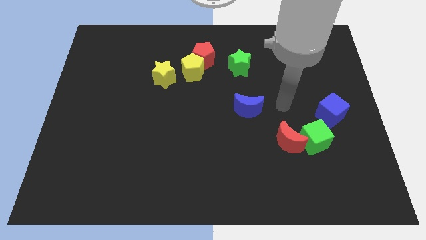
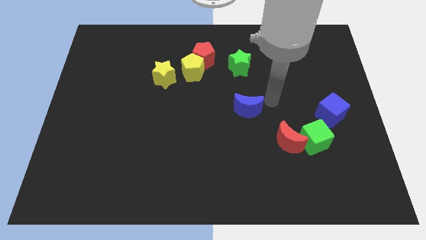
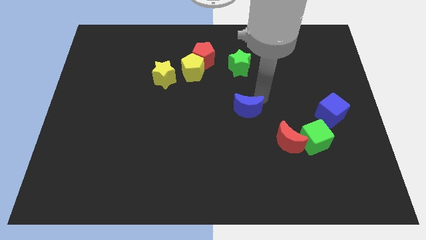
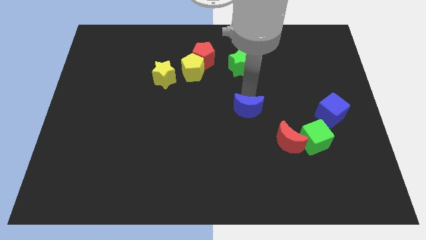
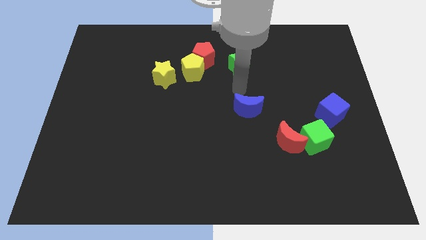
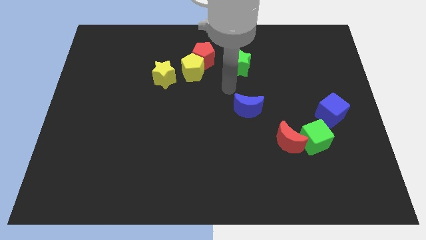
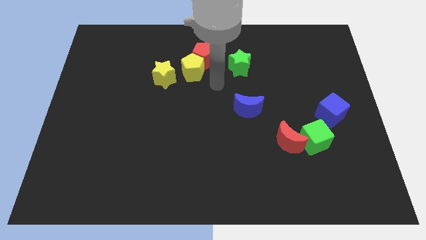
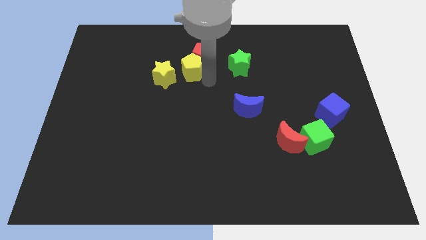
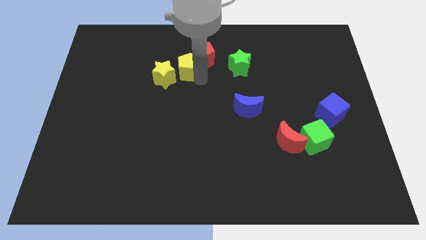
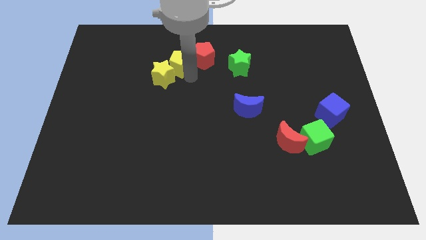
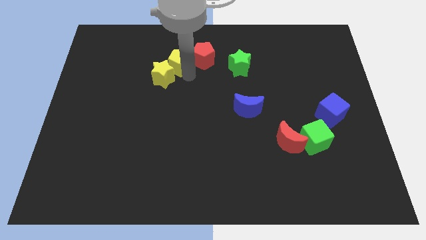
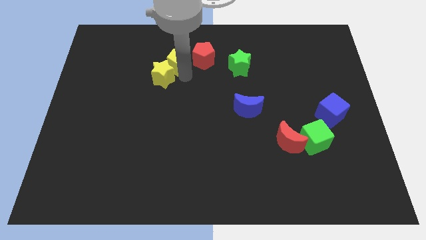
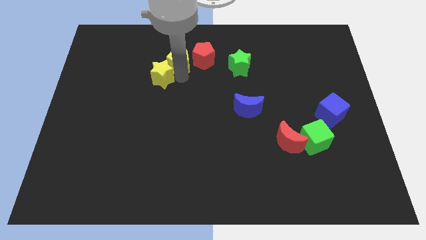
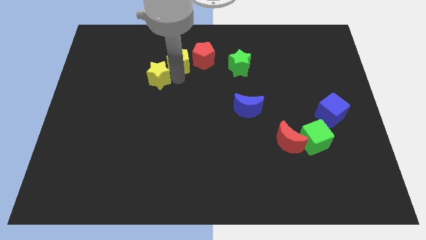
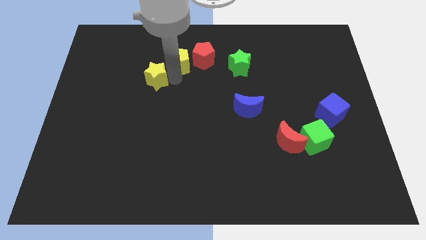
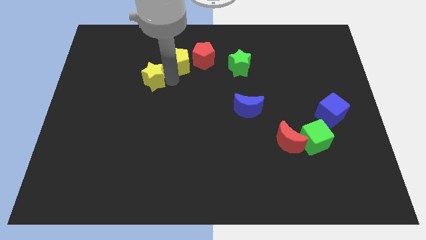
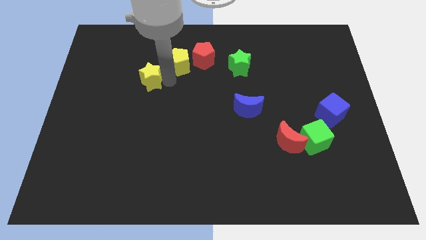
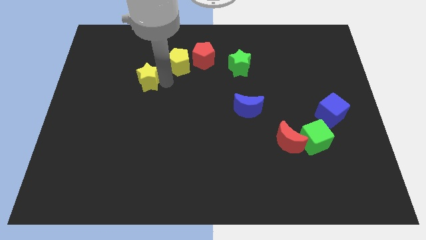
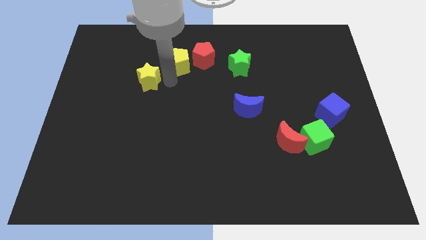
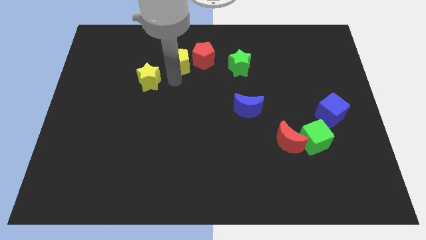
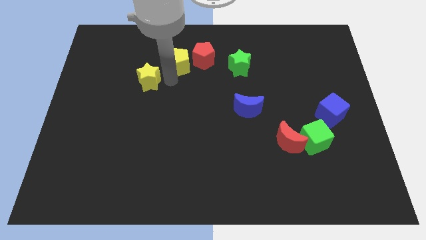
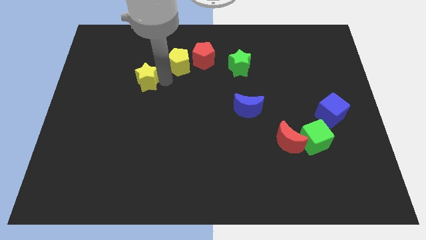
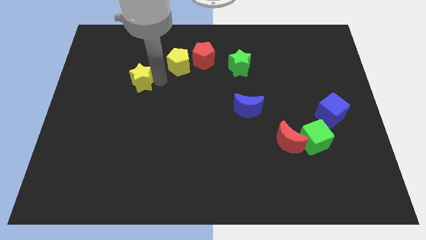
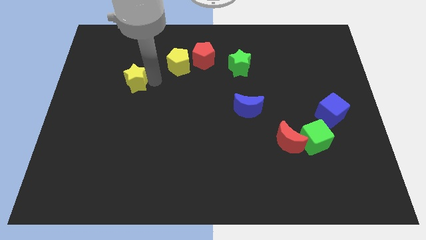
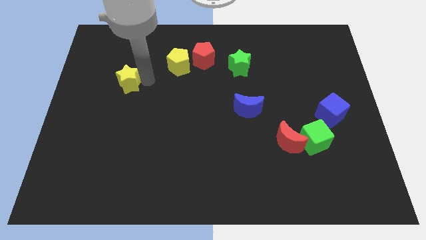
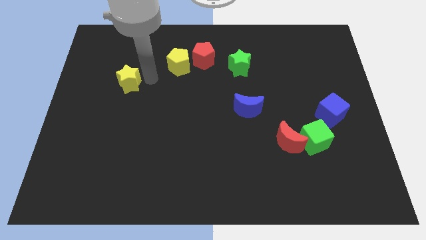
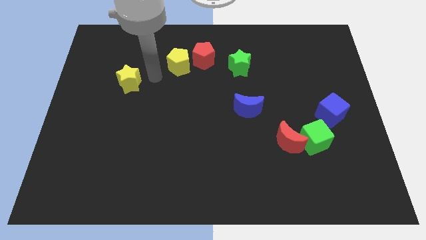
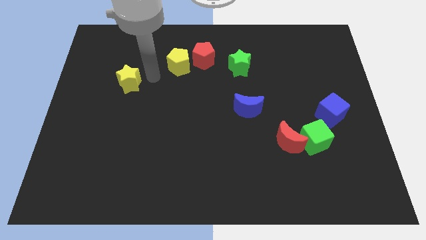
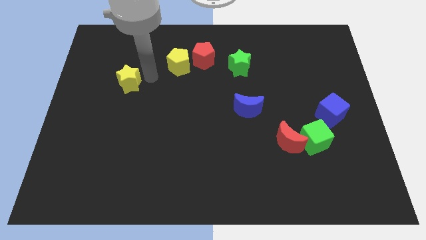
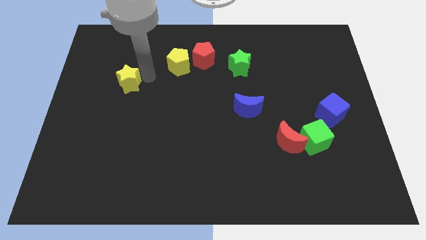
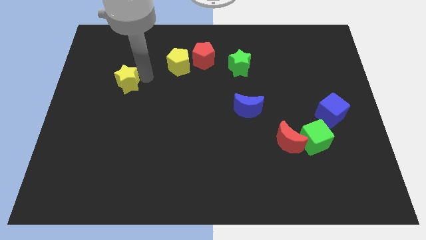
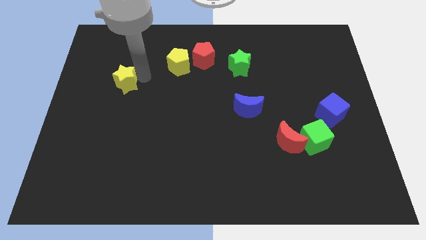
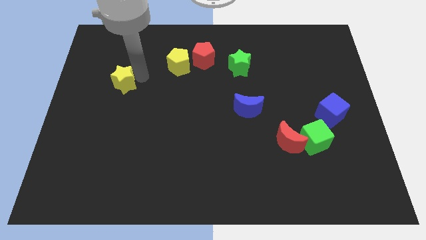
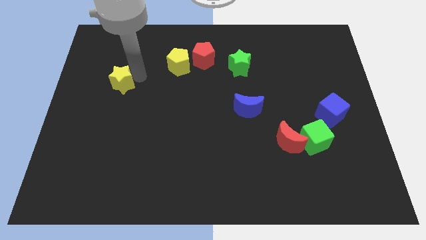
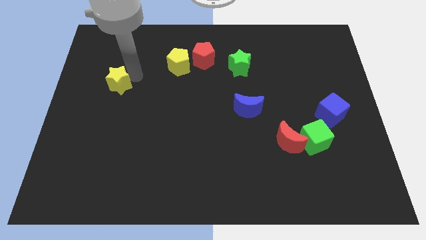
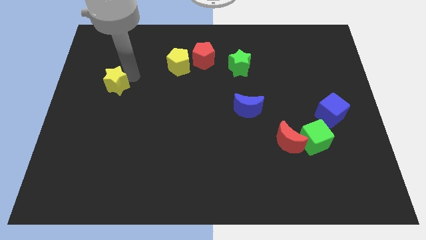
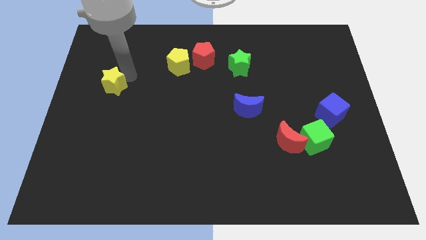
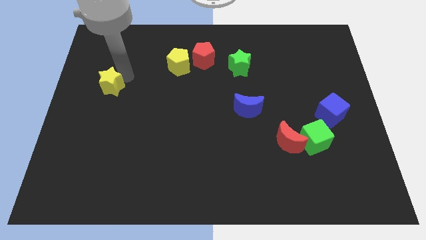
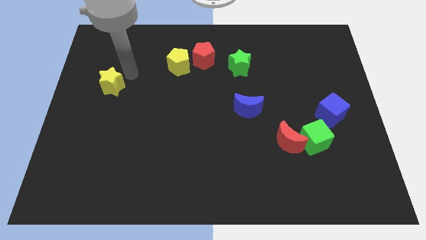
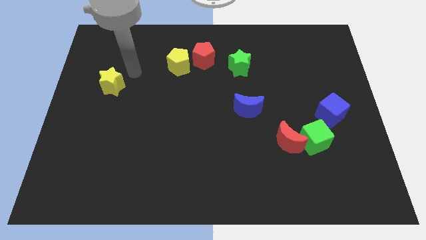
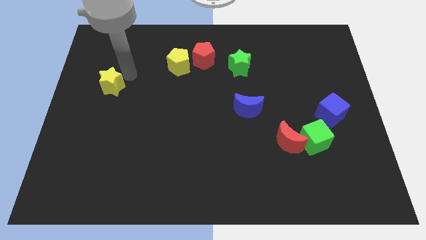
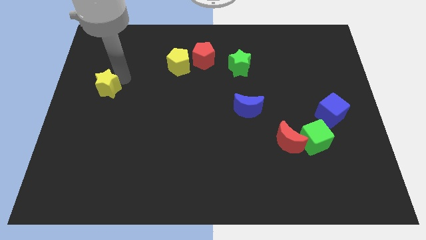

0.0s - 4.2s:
put the yellow star to the center left

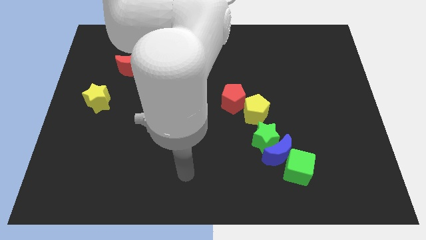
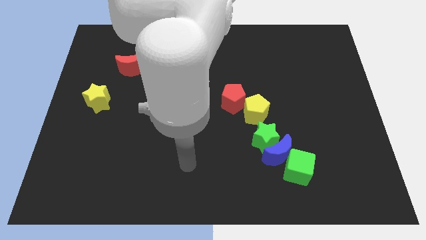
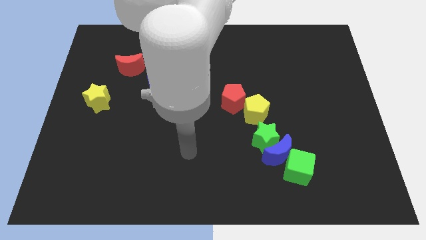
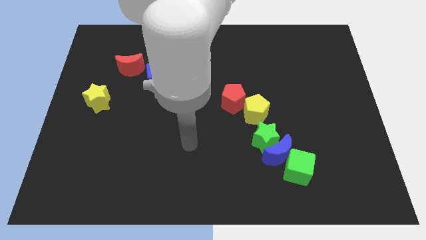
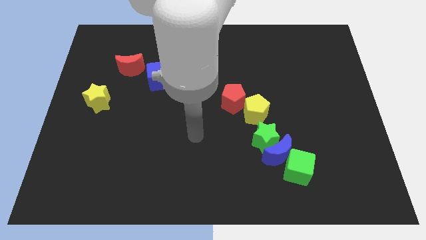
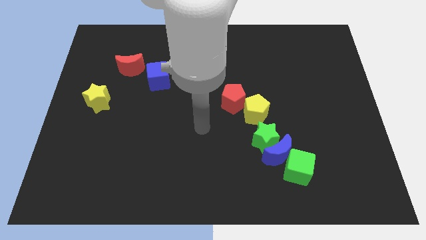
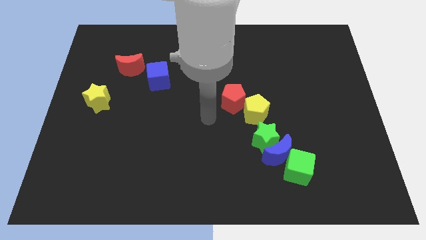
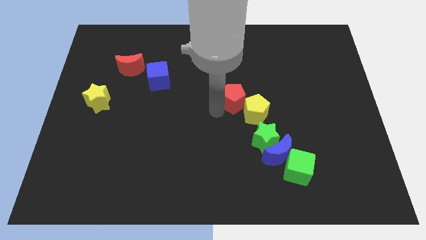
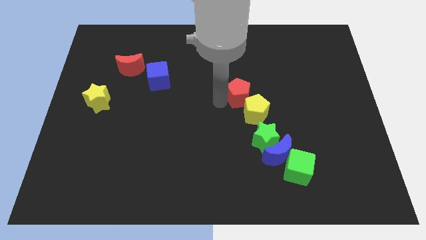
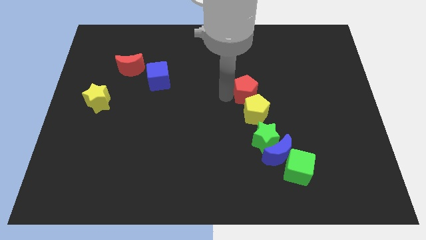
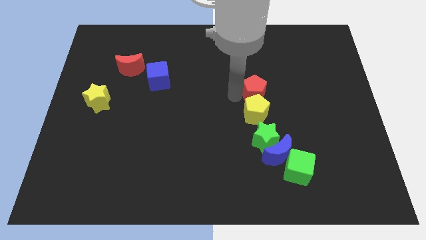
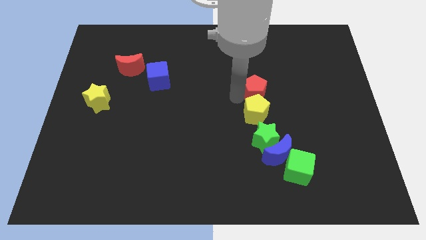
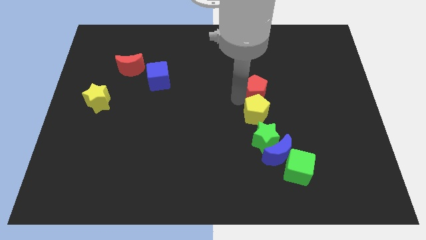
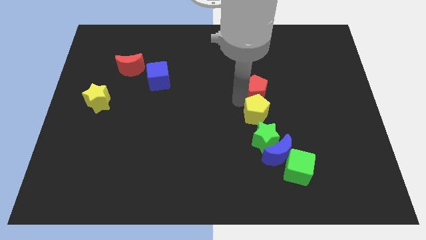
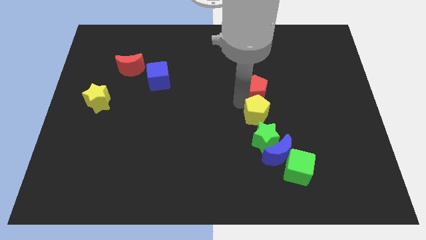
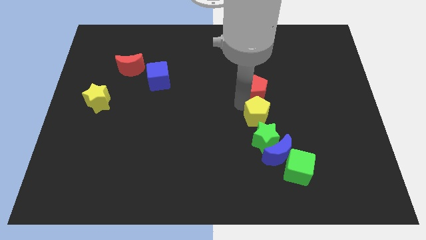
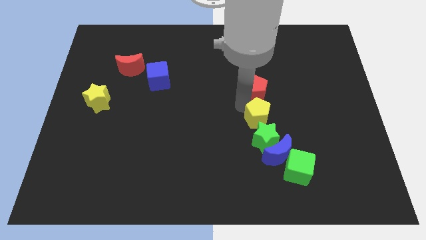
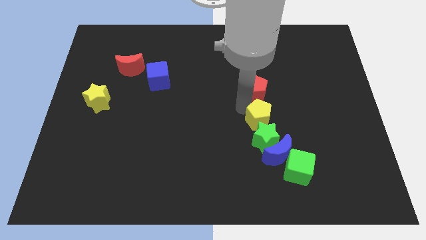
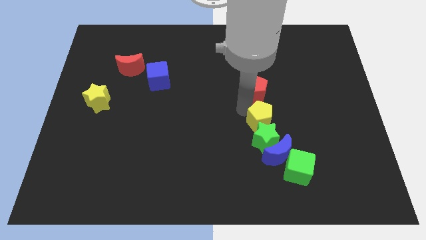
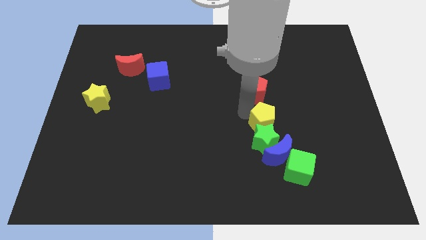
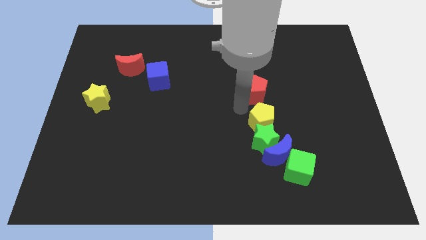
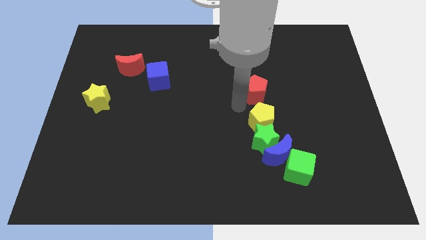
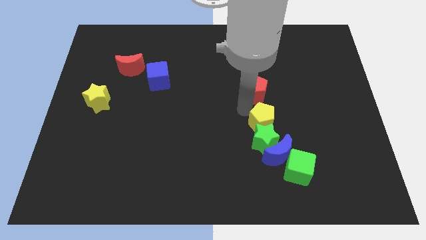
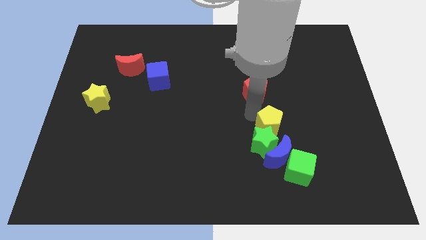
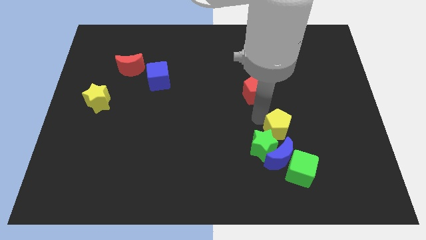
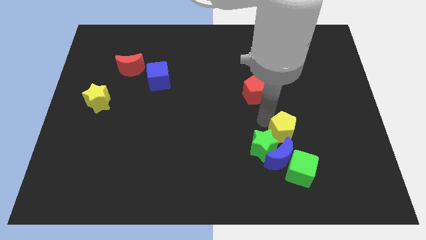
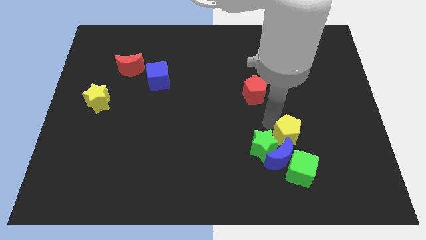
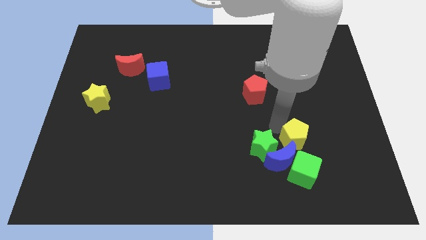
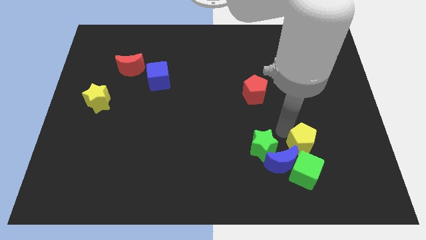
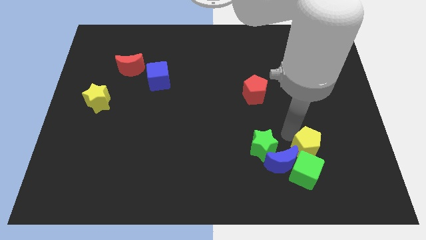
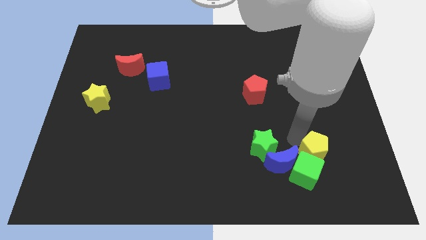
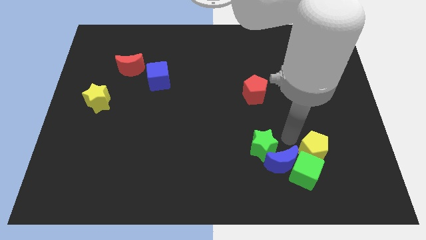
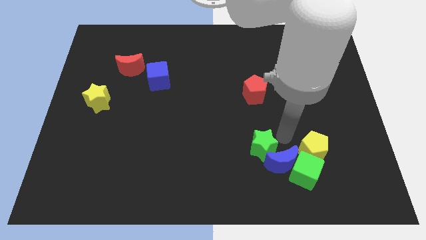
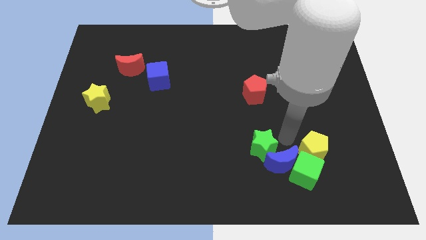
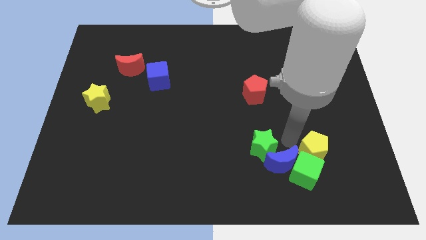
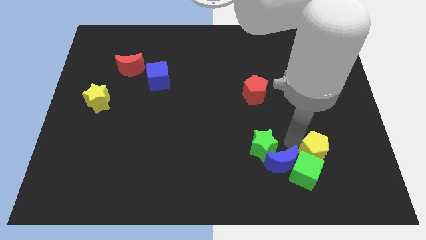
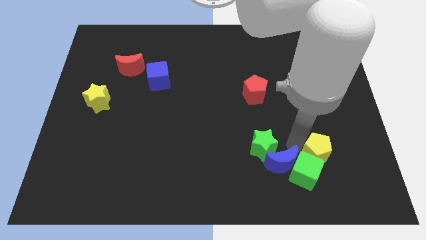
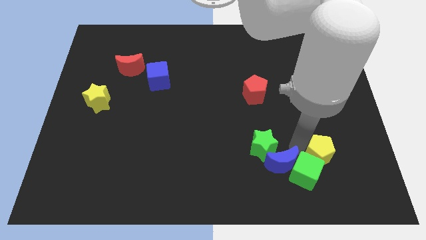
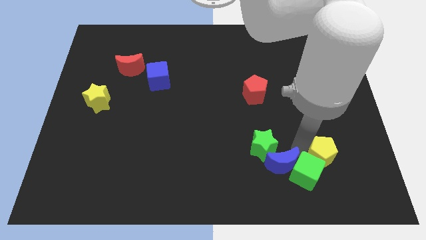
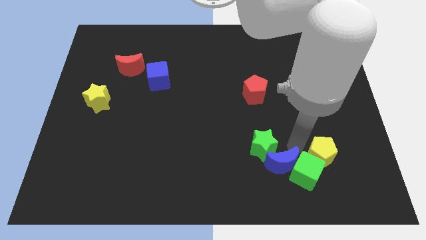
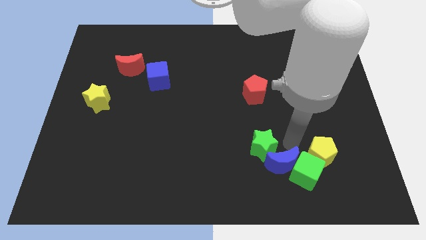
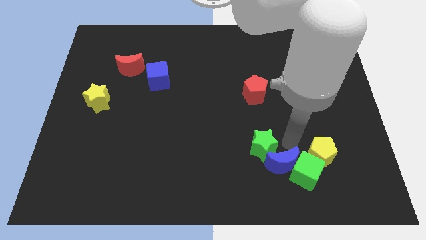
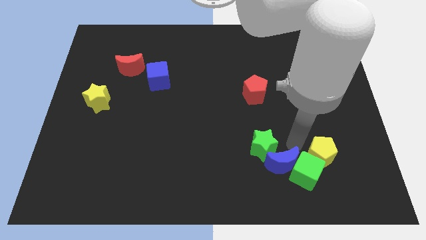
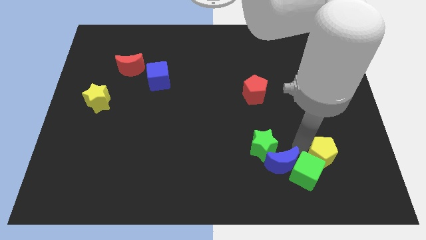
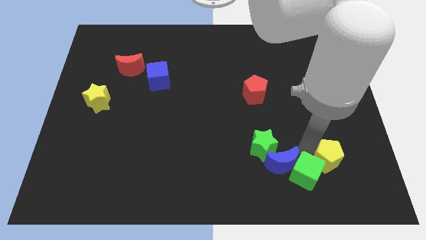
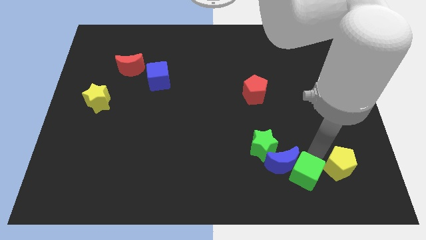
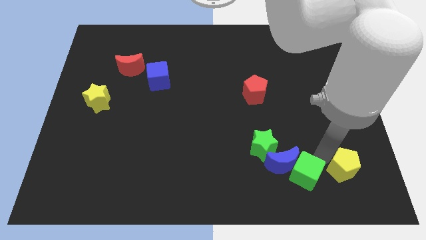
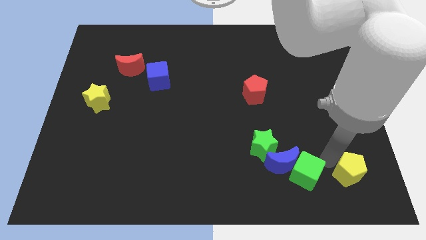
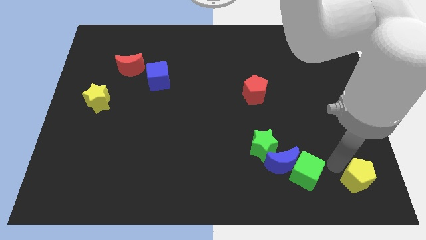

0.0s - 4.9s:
move the yellow pentagon to the bottom right
